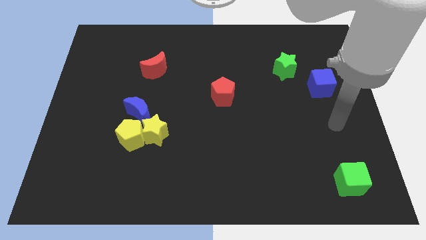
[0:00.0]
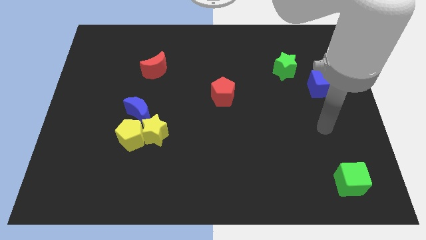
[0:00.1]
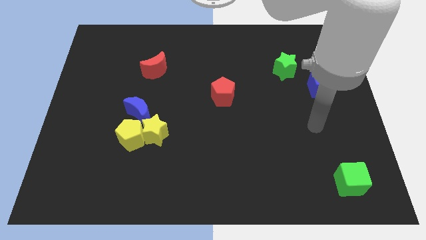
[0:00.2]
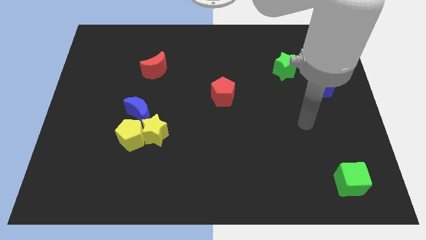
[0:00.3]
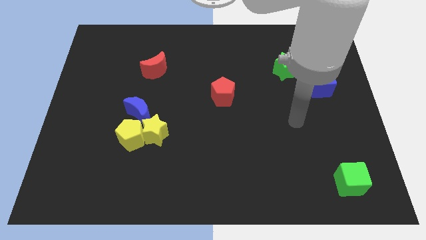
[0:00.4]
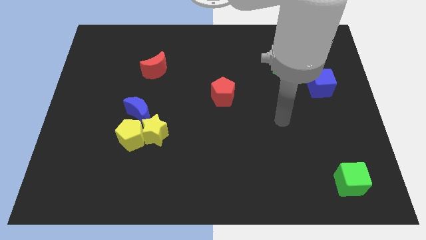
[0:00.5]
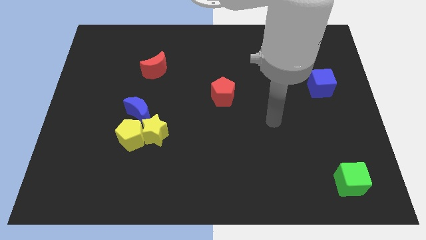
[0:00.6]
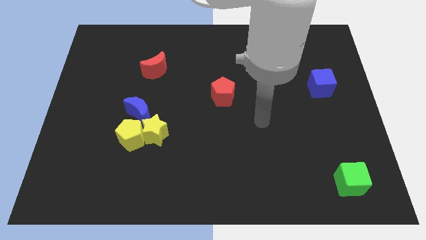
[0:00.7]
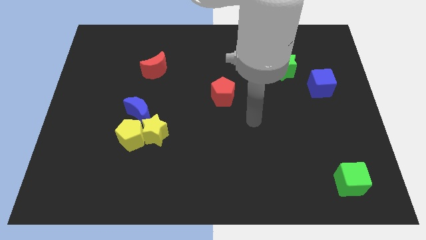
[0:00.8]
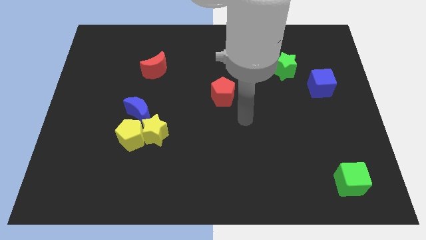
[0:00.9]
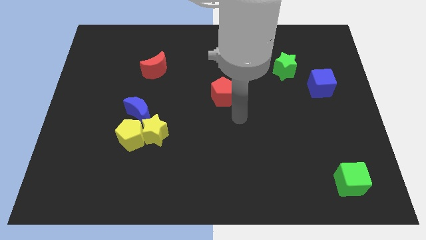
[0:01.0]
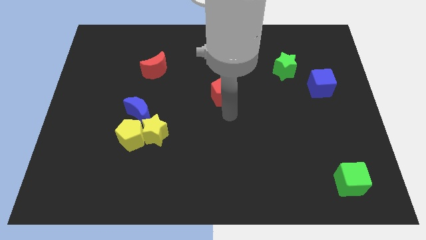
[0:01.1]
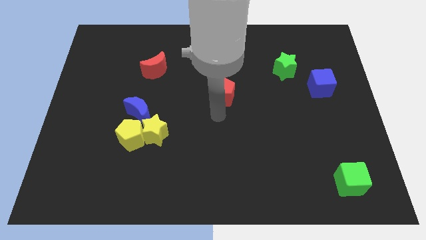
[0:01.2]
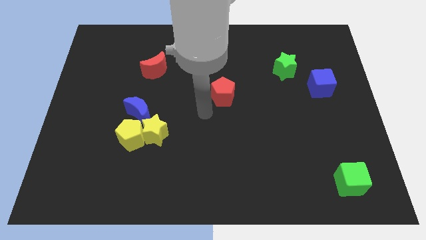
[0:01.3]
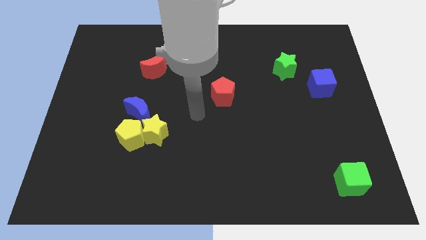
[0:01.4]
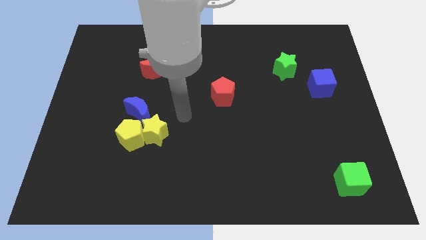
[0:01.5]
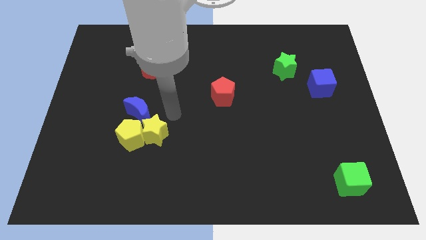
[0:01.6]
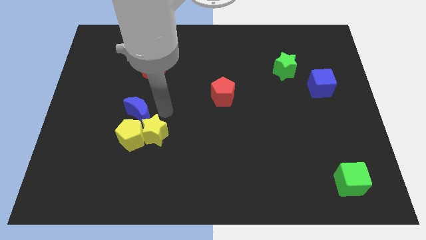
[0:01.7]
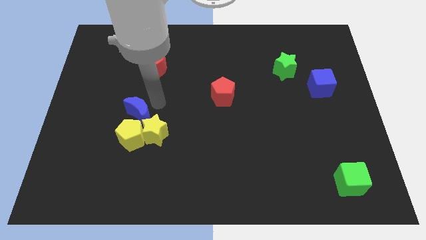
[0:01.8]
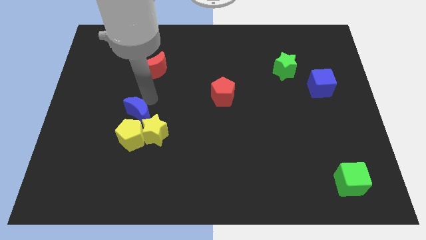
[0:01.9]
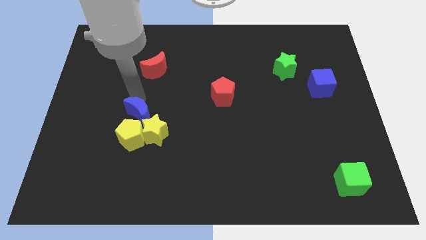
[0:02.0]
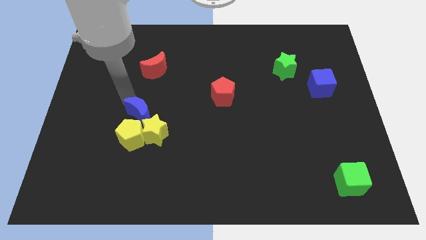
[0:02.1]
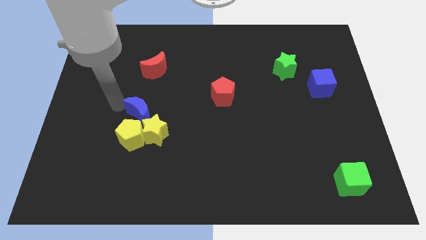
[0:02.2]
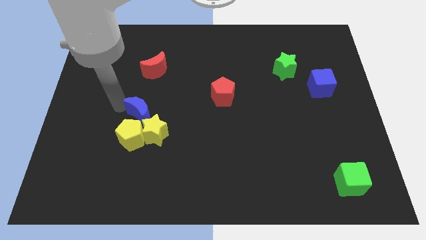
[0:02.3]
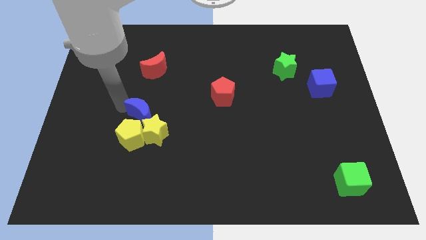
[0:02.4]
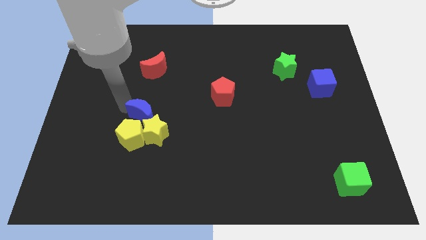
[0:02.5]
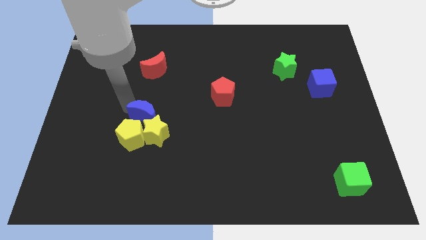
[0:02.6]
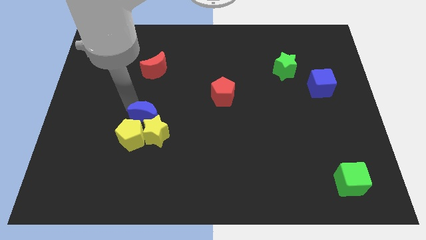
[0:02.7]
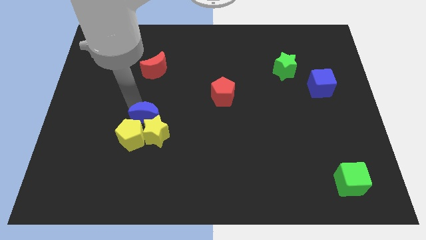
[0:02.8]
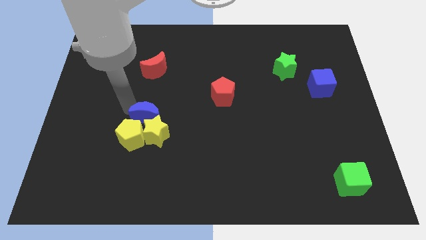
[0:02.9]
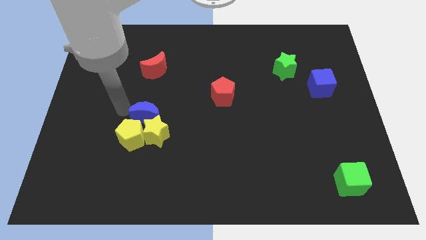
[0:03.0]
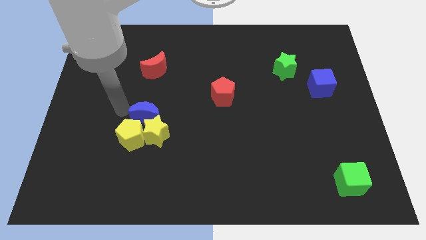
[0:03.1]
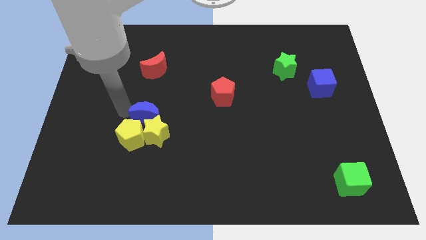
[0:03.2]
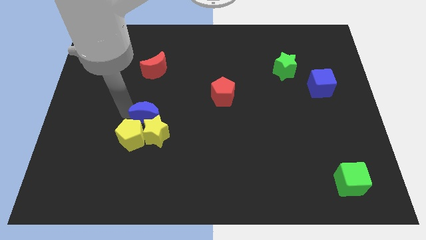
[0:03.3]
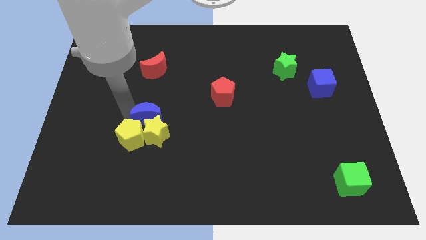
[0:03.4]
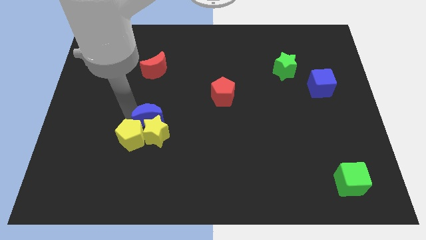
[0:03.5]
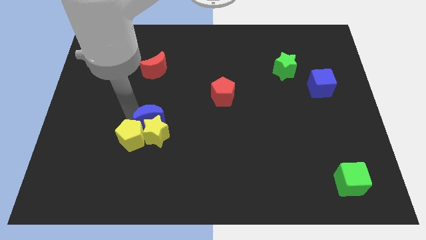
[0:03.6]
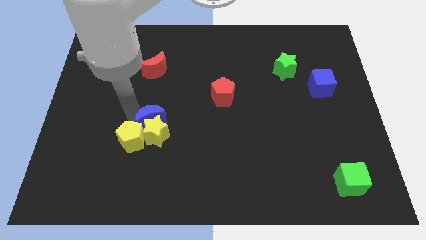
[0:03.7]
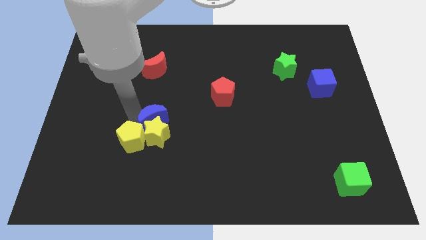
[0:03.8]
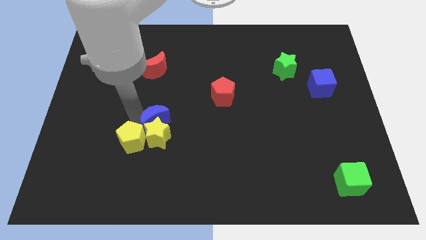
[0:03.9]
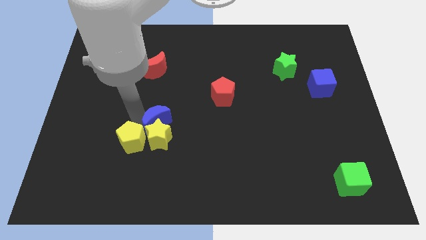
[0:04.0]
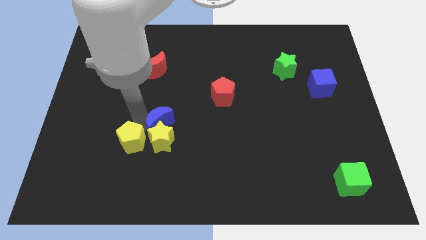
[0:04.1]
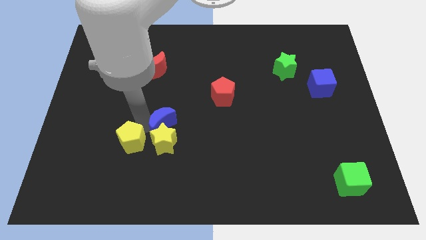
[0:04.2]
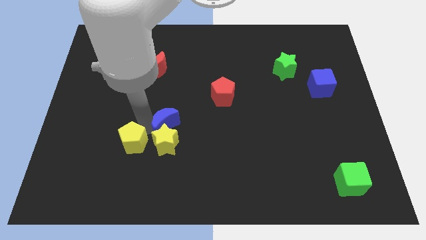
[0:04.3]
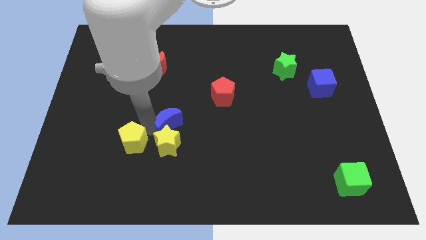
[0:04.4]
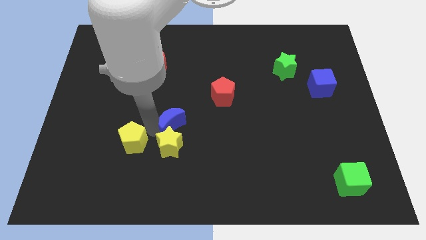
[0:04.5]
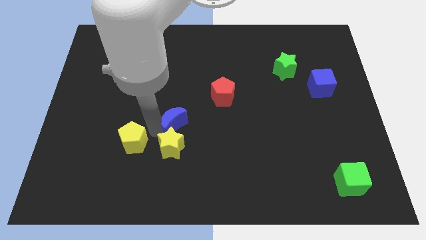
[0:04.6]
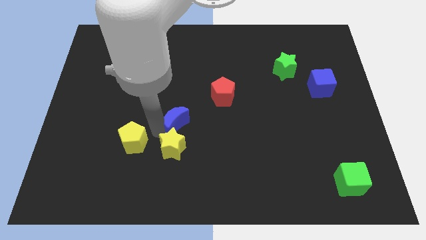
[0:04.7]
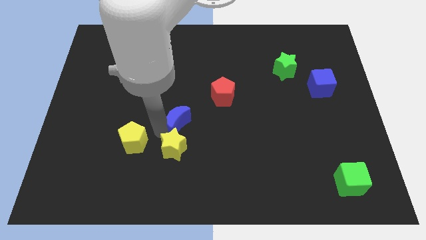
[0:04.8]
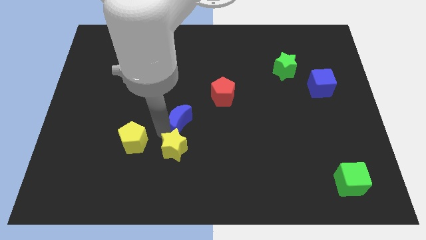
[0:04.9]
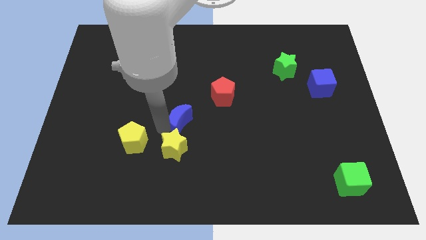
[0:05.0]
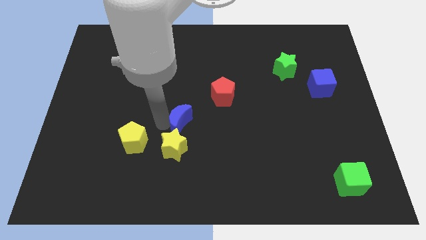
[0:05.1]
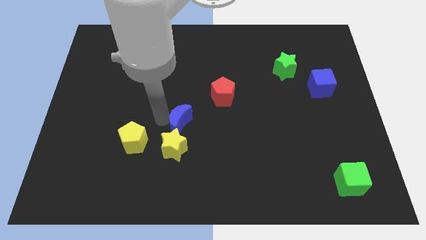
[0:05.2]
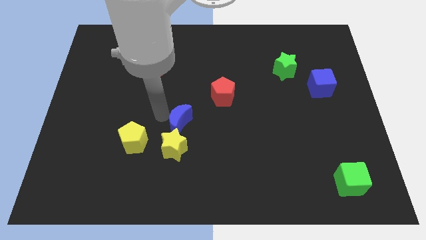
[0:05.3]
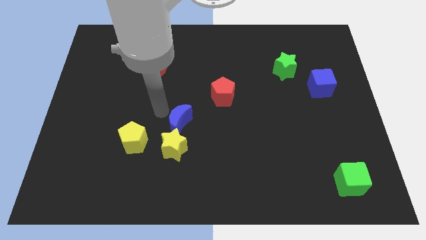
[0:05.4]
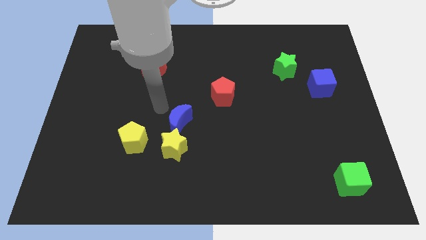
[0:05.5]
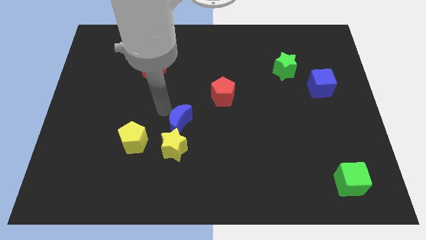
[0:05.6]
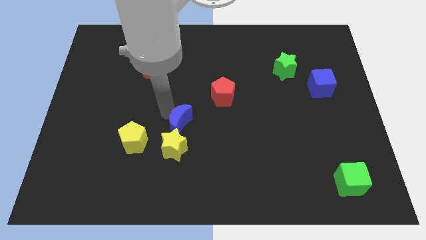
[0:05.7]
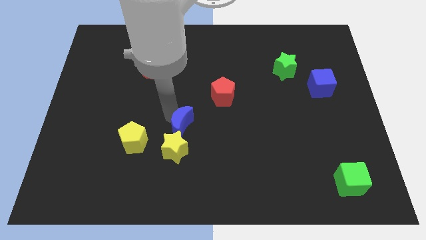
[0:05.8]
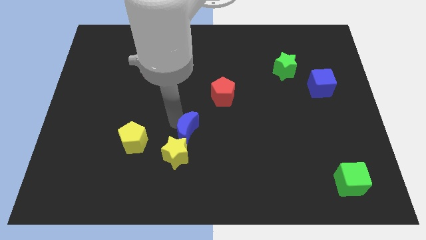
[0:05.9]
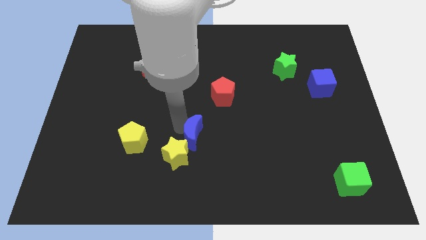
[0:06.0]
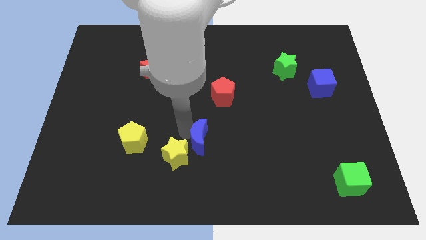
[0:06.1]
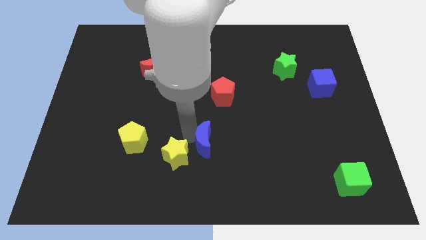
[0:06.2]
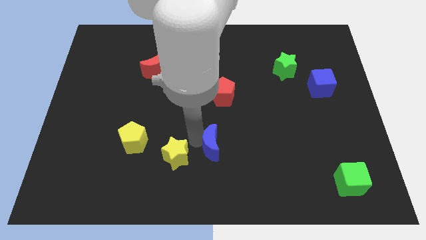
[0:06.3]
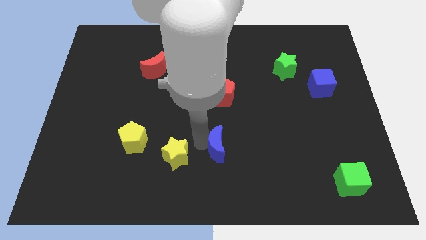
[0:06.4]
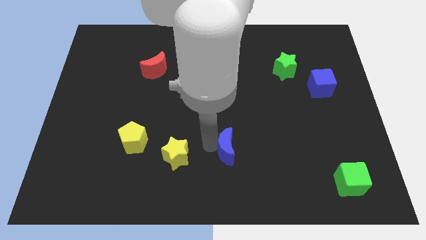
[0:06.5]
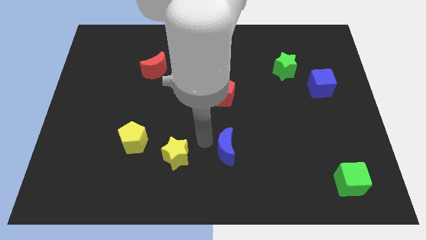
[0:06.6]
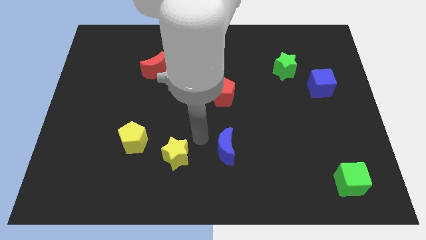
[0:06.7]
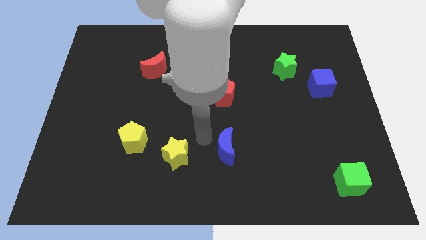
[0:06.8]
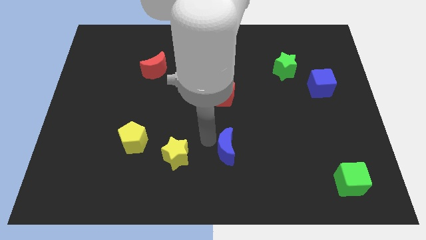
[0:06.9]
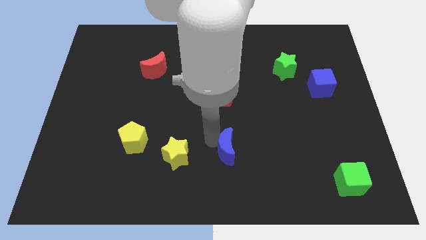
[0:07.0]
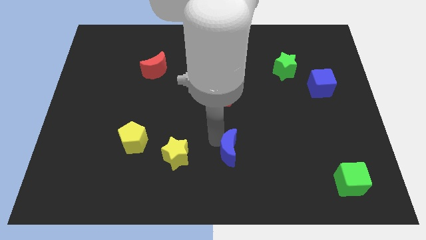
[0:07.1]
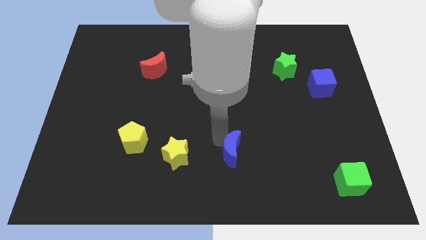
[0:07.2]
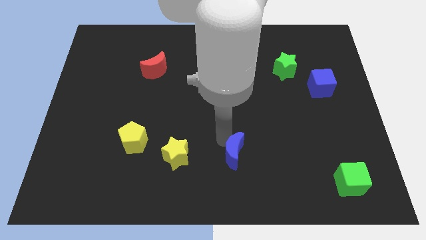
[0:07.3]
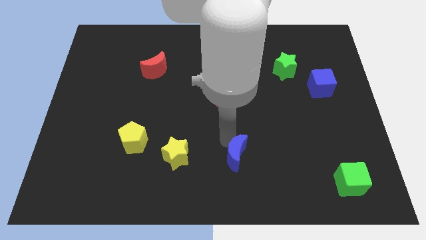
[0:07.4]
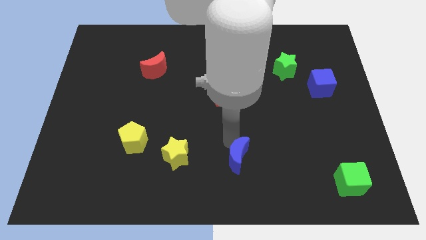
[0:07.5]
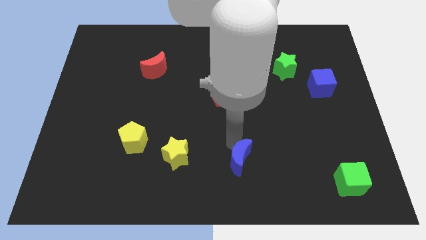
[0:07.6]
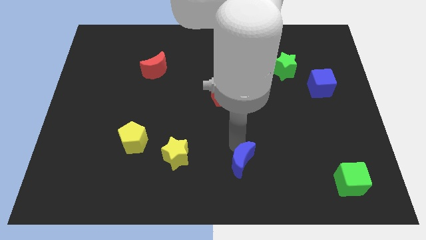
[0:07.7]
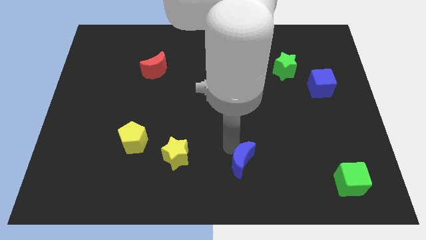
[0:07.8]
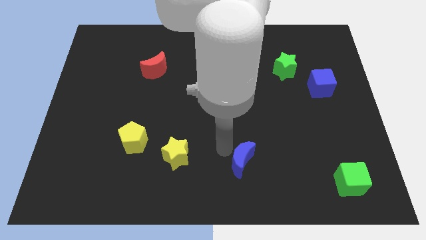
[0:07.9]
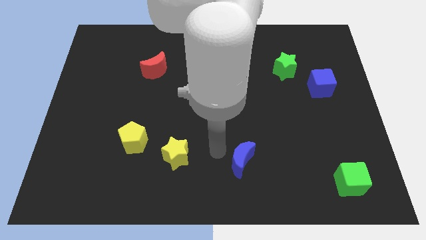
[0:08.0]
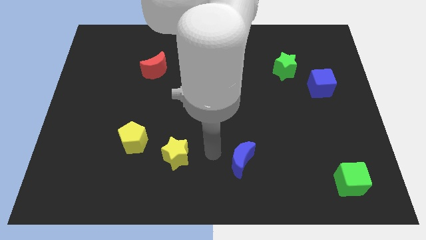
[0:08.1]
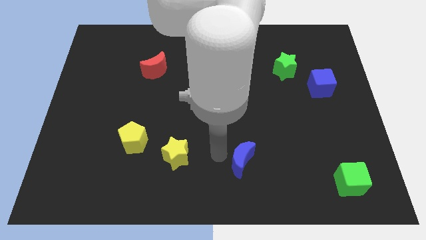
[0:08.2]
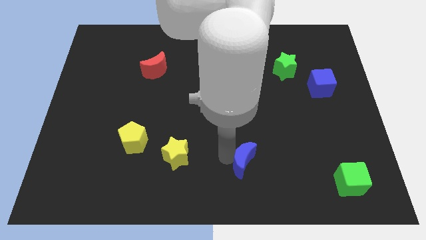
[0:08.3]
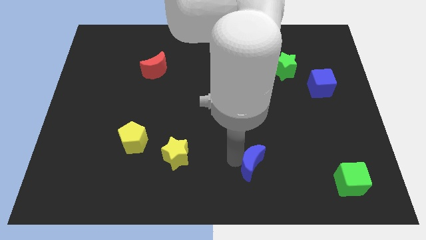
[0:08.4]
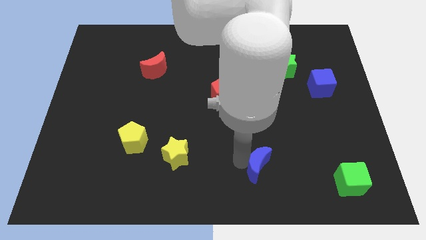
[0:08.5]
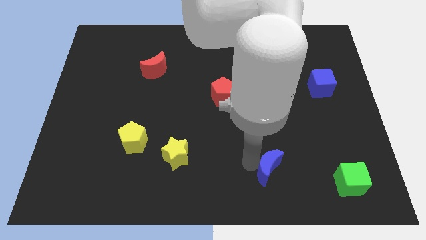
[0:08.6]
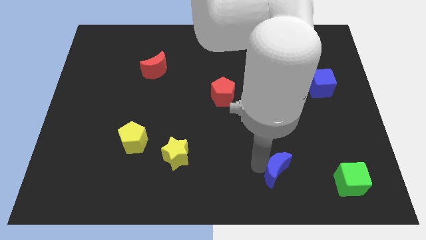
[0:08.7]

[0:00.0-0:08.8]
push the blue moon to the left side of the green cube
